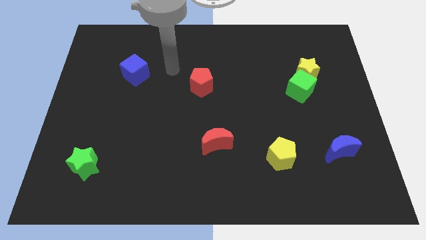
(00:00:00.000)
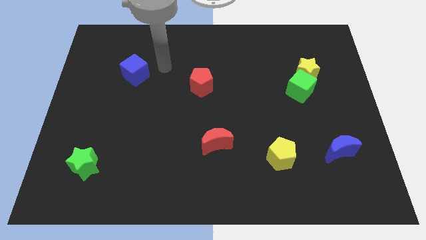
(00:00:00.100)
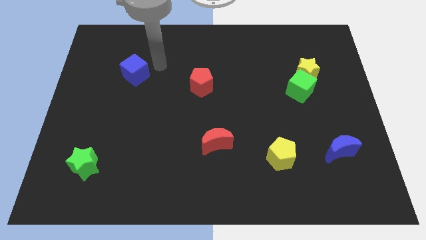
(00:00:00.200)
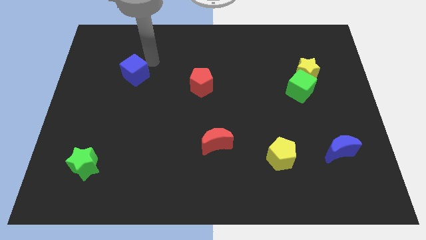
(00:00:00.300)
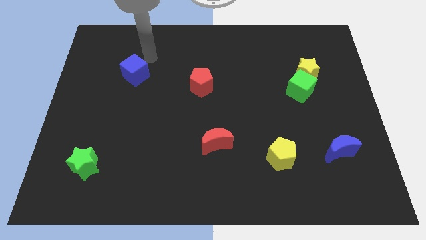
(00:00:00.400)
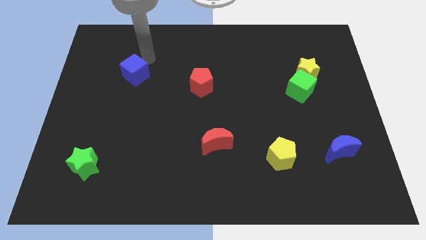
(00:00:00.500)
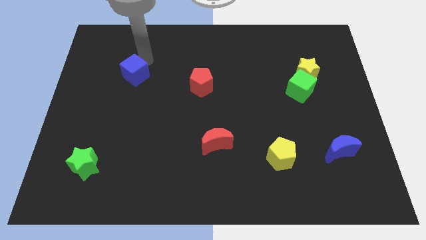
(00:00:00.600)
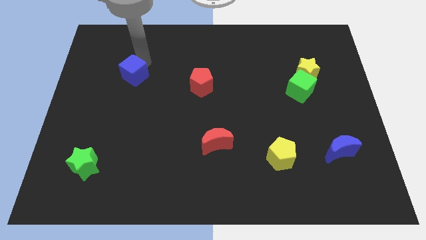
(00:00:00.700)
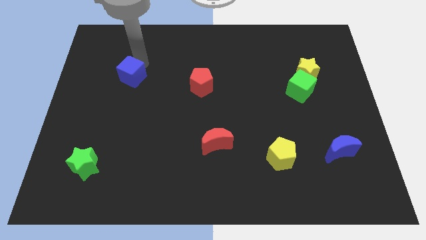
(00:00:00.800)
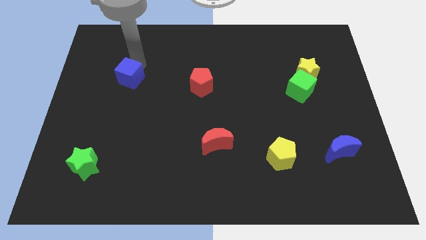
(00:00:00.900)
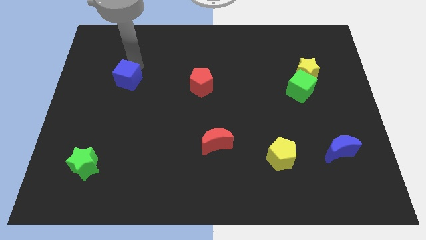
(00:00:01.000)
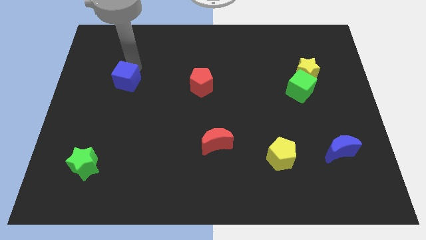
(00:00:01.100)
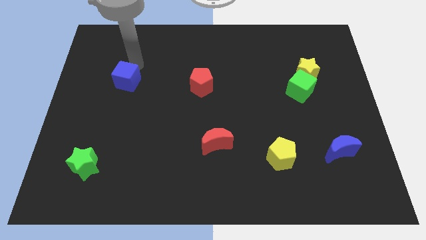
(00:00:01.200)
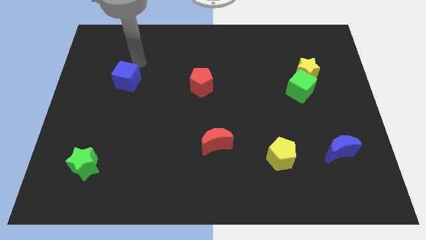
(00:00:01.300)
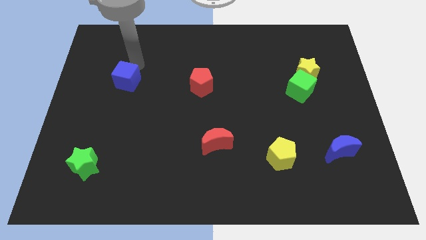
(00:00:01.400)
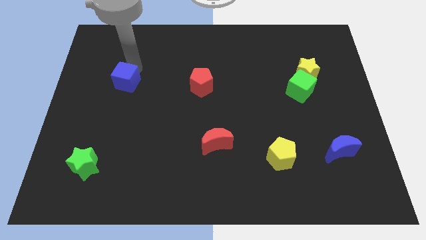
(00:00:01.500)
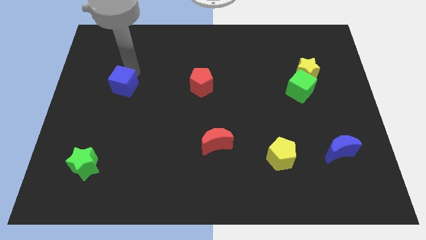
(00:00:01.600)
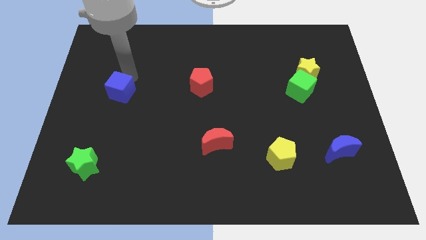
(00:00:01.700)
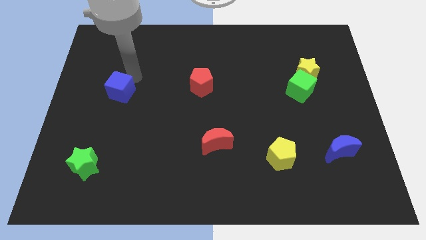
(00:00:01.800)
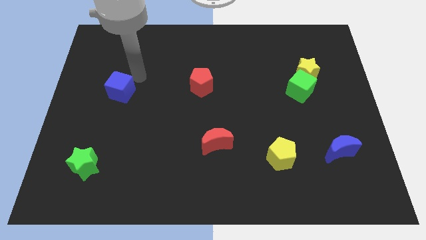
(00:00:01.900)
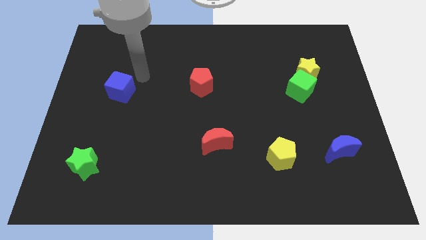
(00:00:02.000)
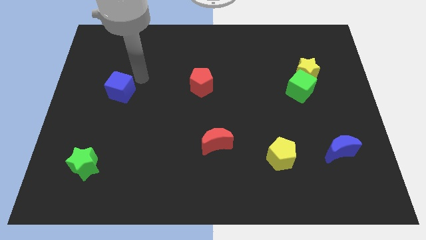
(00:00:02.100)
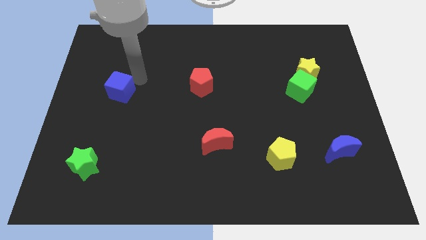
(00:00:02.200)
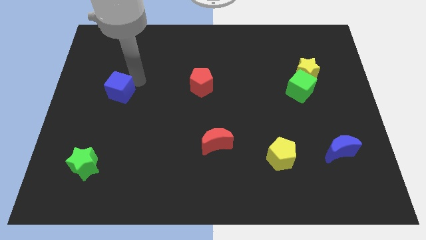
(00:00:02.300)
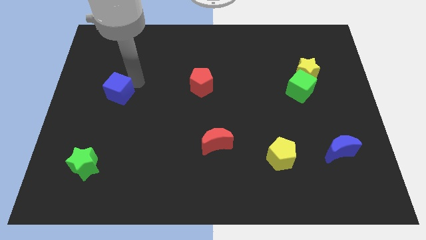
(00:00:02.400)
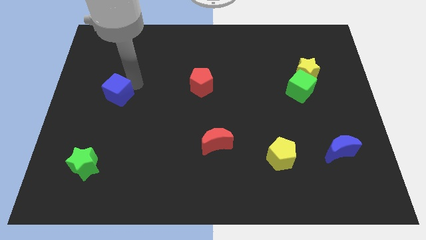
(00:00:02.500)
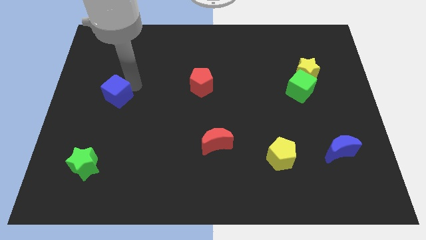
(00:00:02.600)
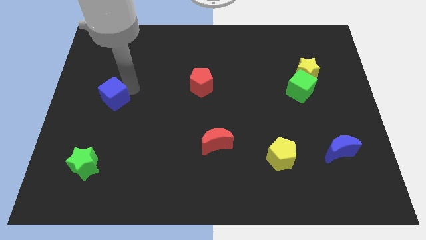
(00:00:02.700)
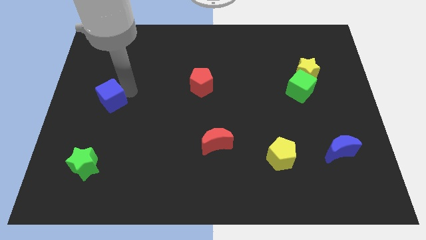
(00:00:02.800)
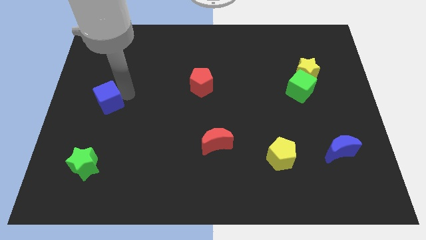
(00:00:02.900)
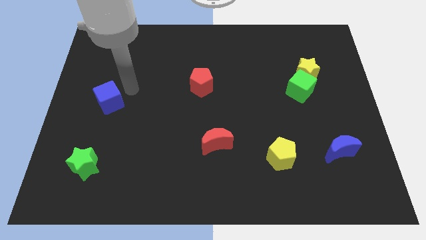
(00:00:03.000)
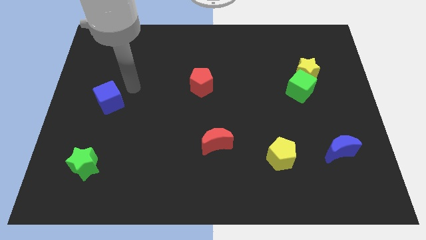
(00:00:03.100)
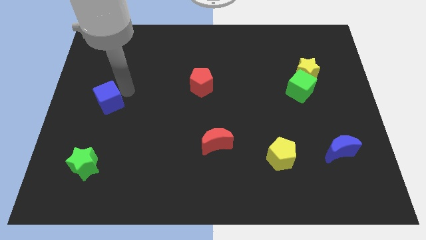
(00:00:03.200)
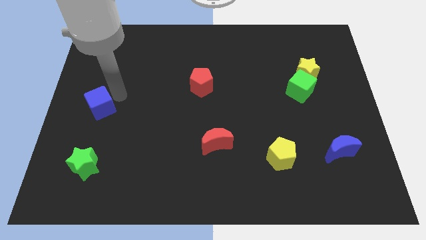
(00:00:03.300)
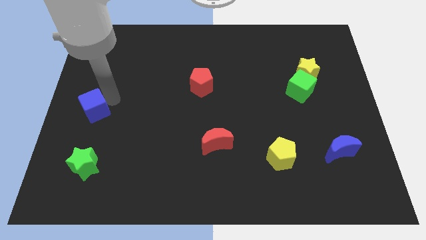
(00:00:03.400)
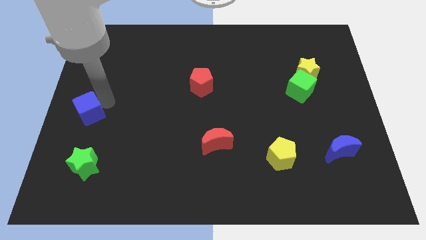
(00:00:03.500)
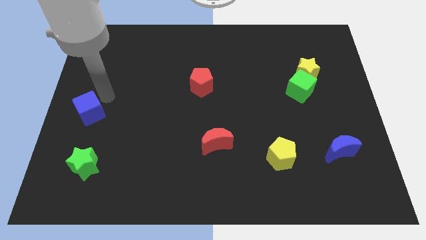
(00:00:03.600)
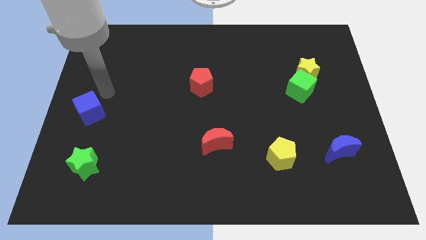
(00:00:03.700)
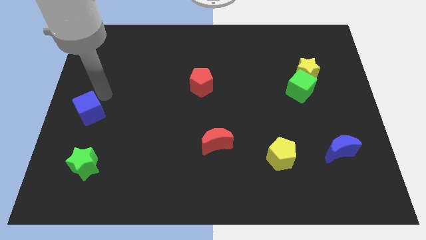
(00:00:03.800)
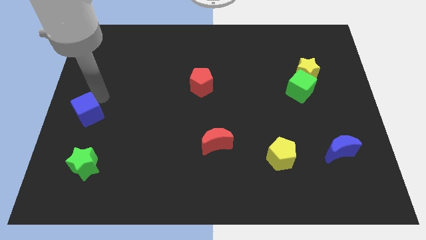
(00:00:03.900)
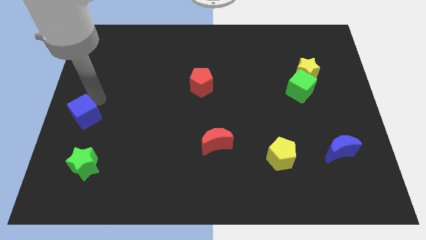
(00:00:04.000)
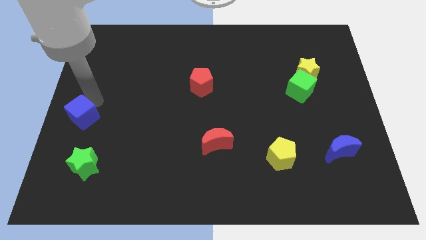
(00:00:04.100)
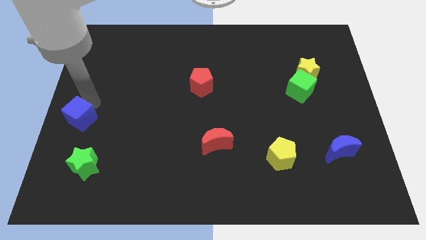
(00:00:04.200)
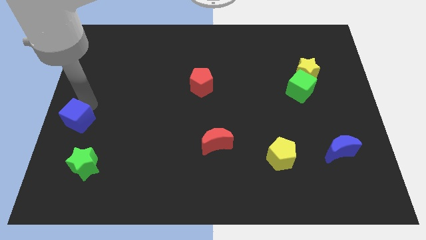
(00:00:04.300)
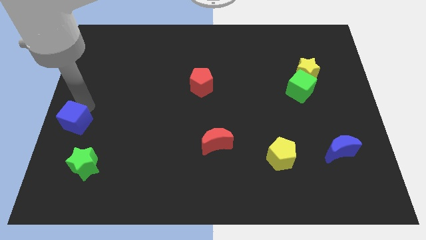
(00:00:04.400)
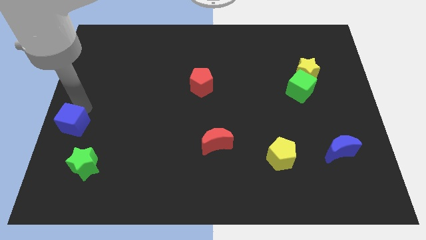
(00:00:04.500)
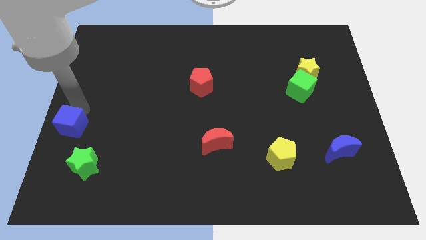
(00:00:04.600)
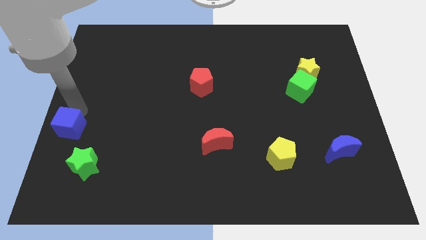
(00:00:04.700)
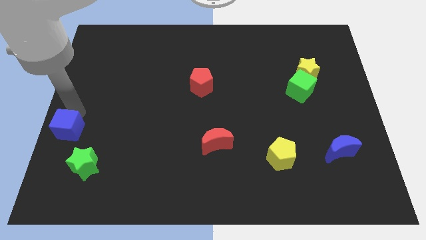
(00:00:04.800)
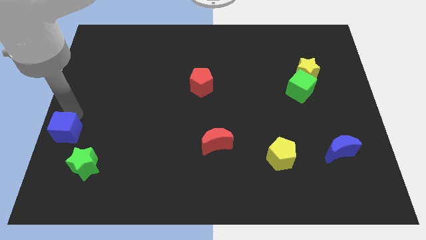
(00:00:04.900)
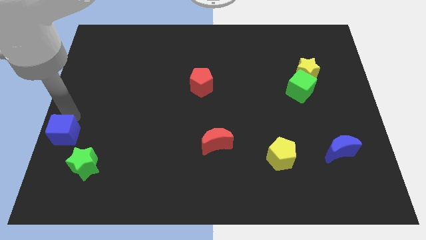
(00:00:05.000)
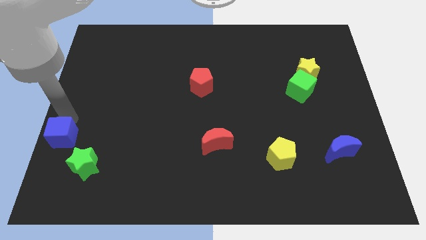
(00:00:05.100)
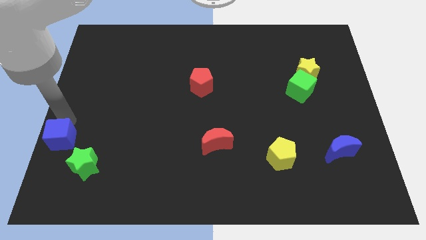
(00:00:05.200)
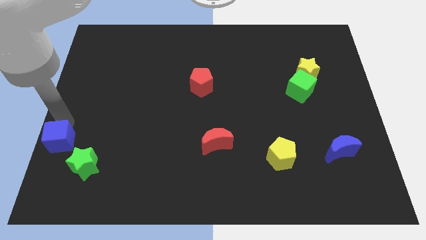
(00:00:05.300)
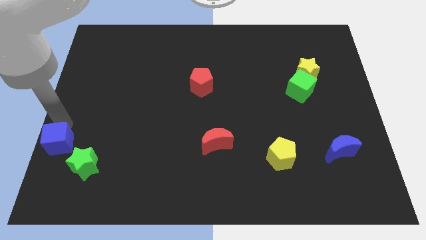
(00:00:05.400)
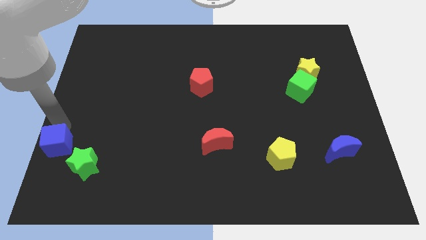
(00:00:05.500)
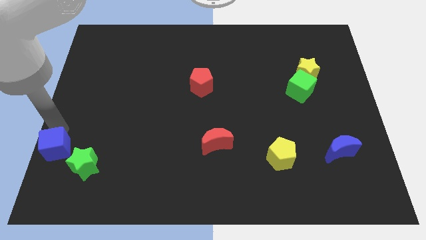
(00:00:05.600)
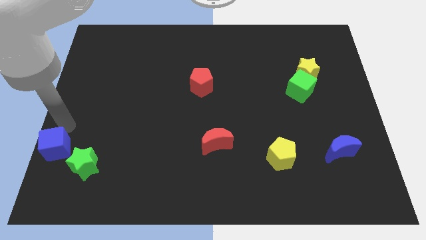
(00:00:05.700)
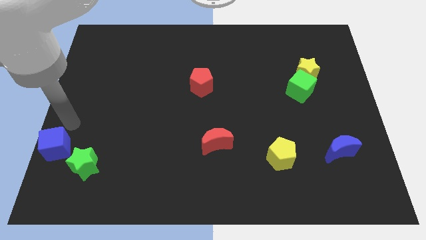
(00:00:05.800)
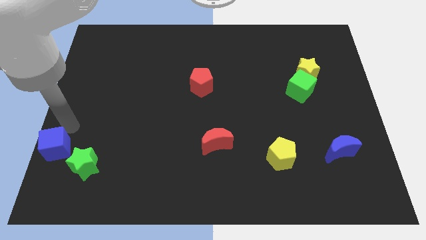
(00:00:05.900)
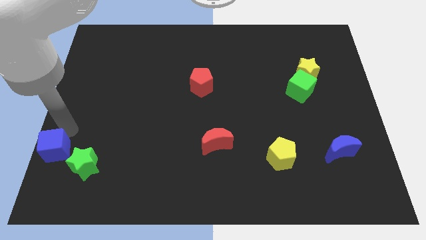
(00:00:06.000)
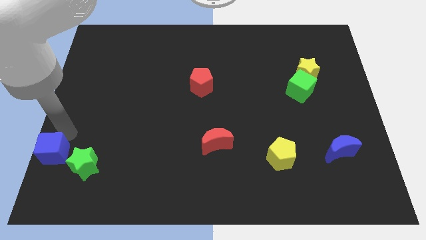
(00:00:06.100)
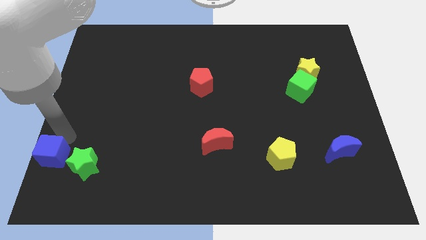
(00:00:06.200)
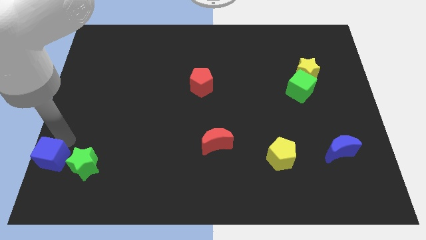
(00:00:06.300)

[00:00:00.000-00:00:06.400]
slide the blue cube to the bottom left corner
